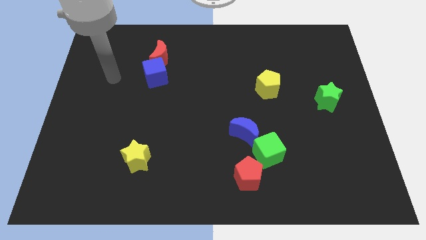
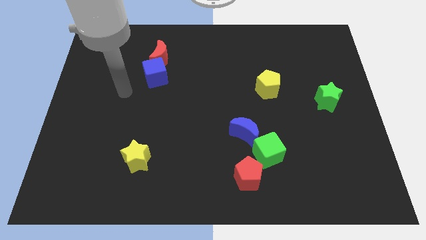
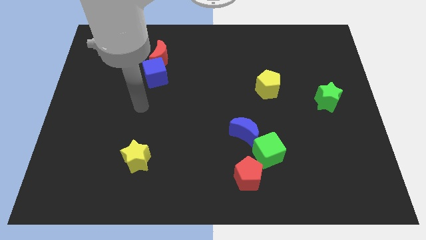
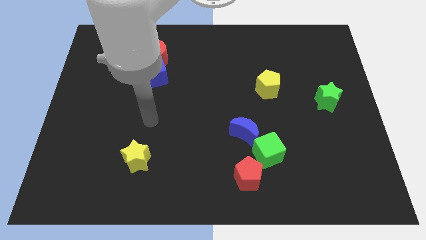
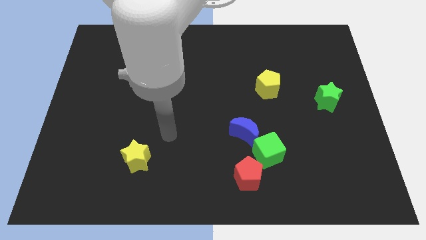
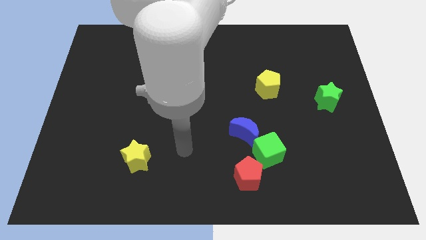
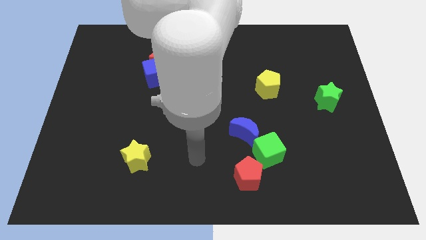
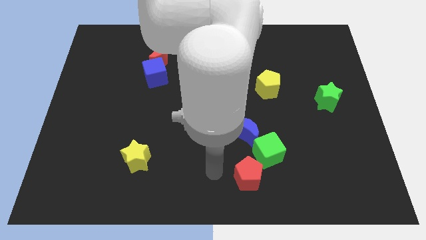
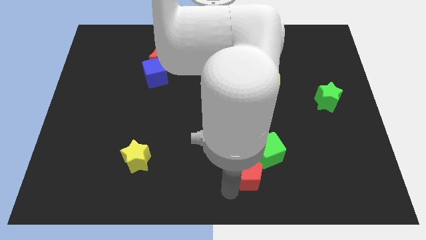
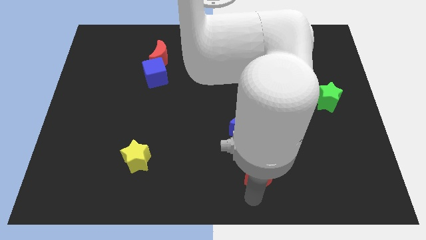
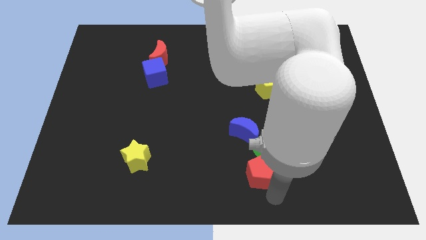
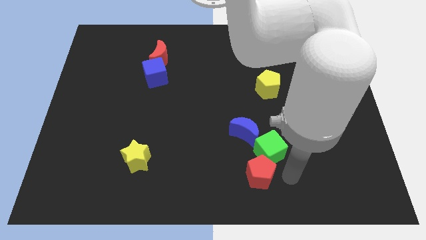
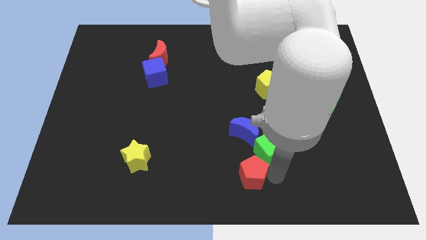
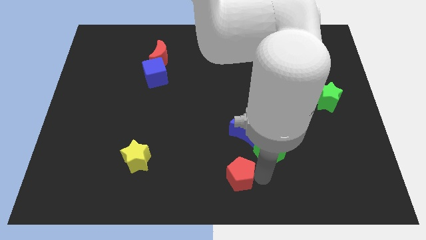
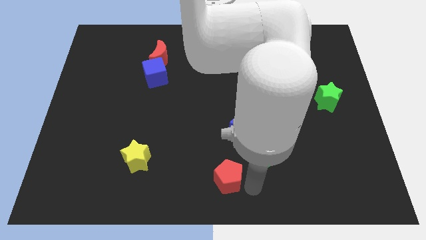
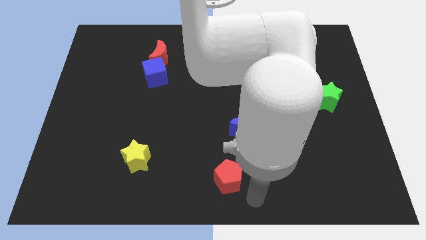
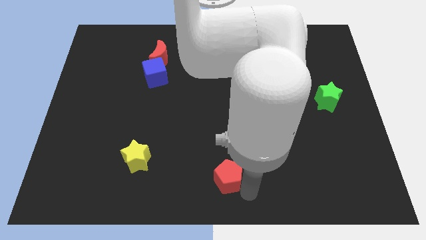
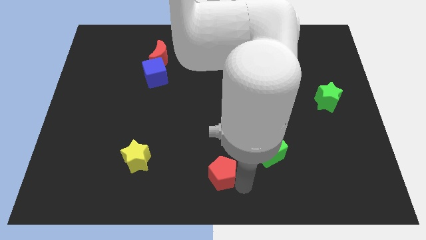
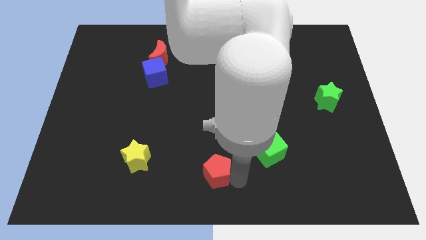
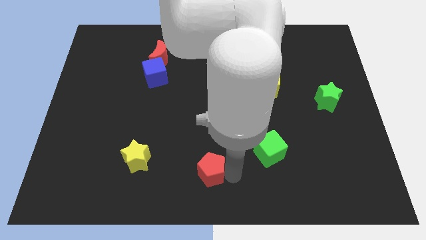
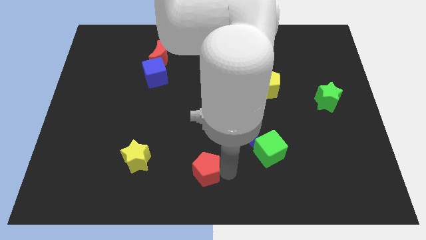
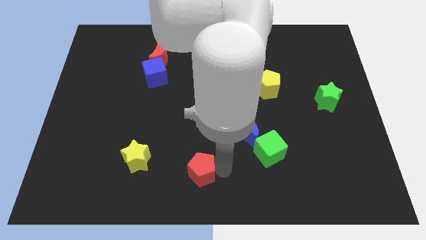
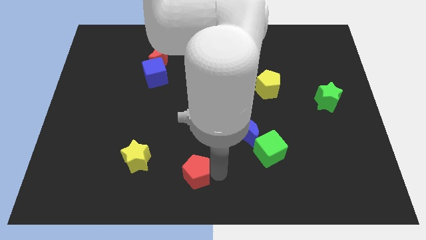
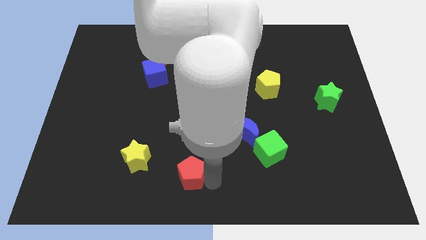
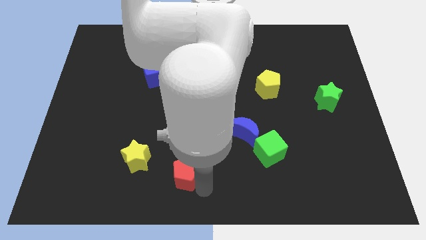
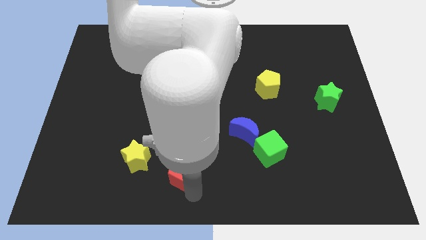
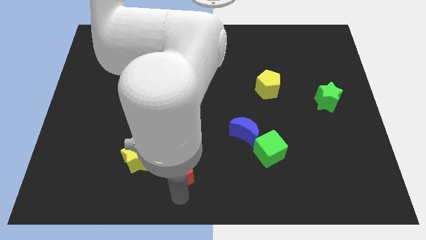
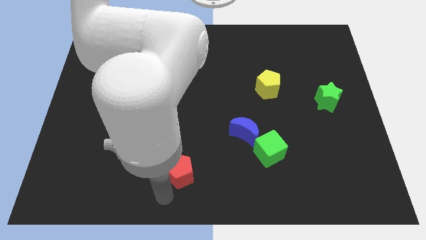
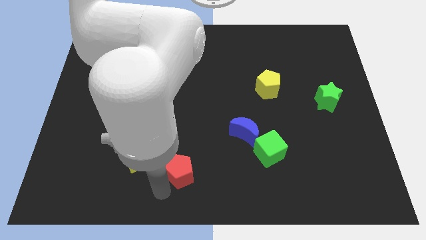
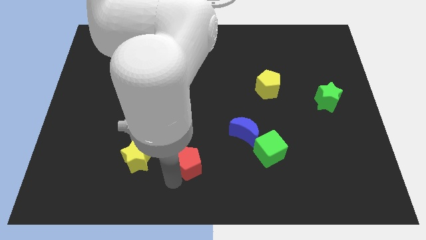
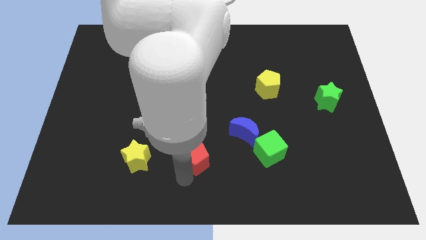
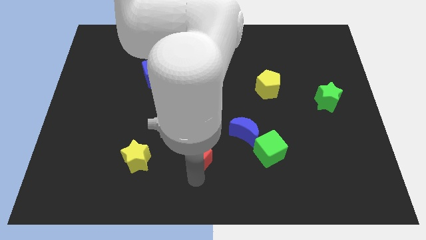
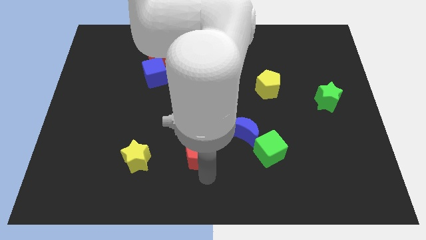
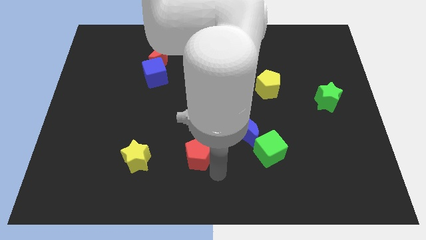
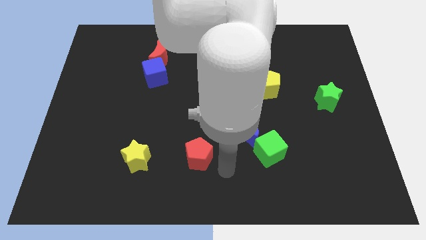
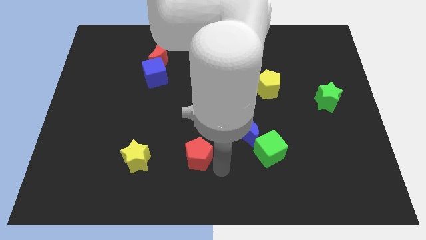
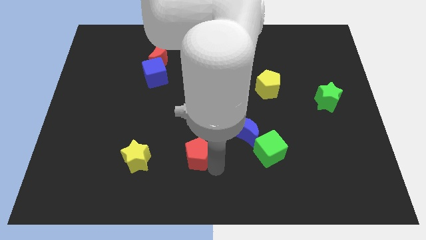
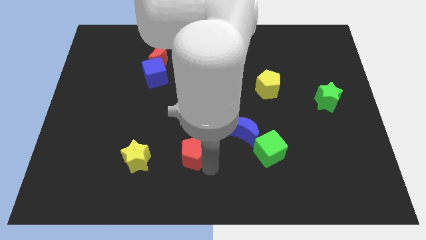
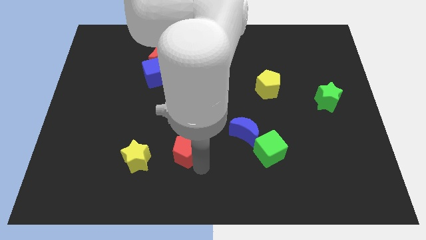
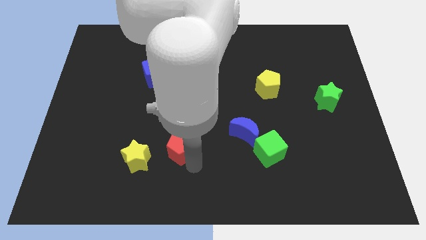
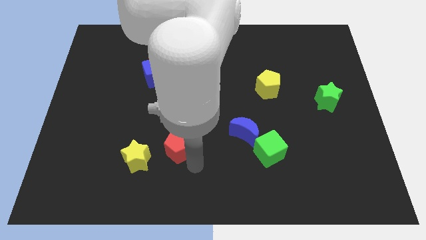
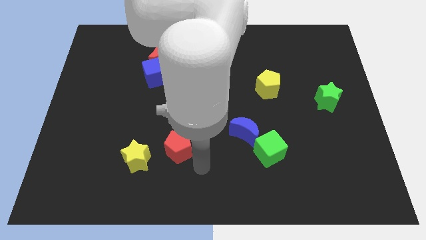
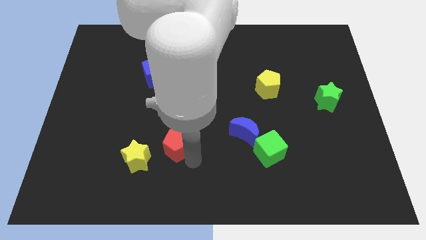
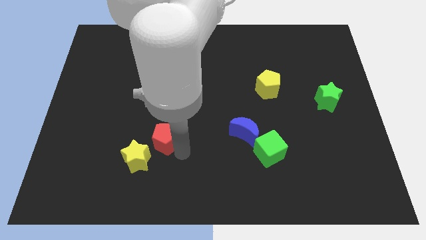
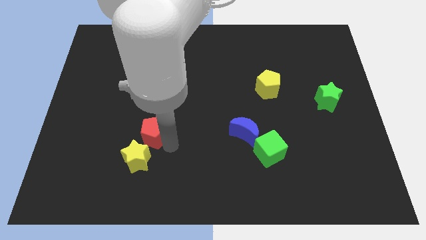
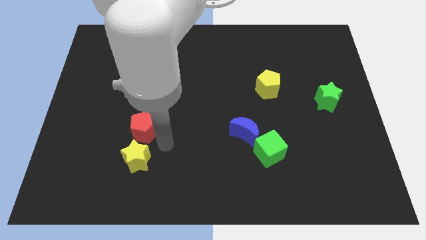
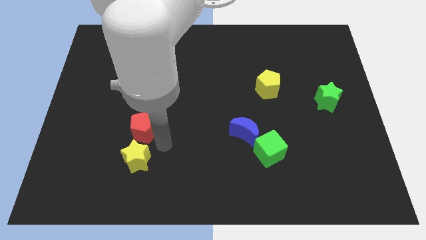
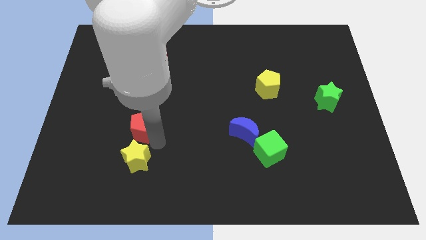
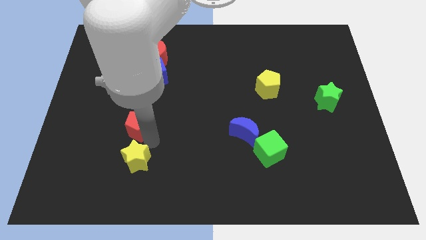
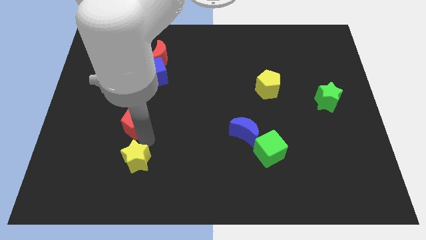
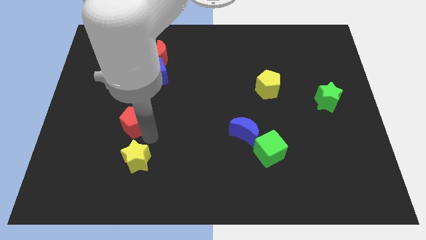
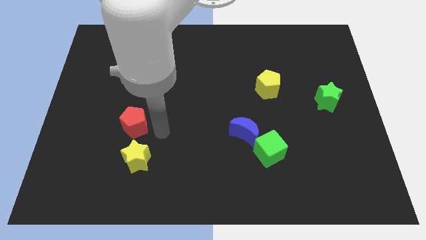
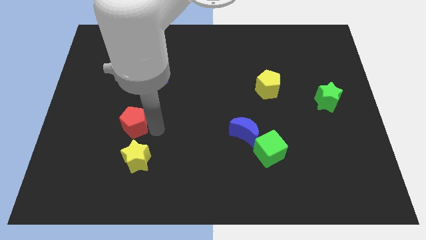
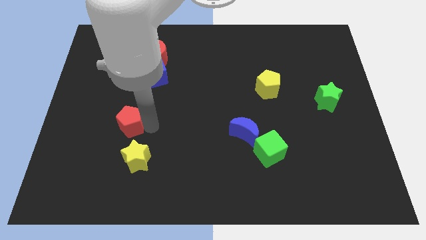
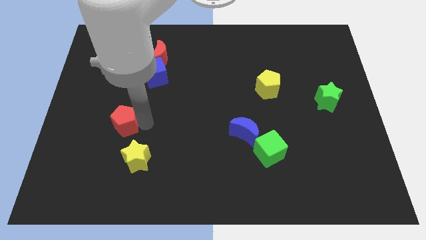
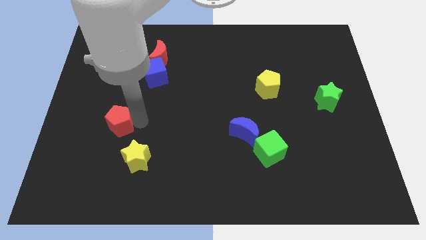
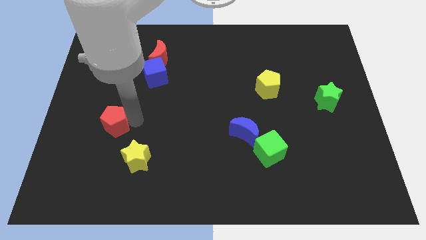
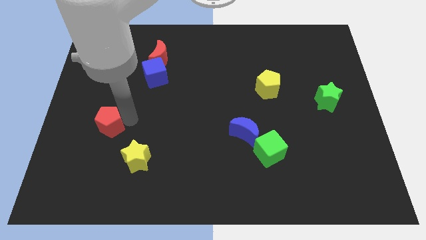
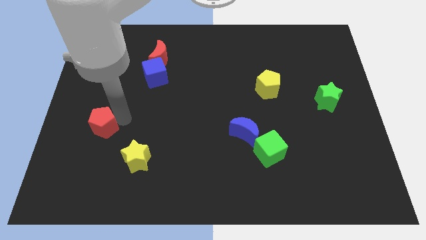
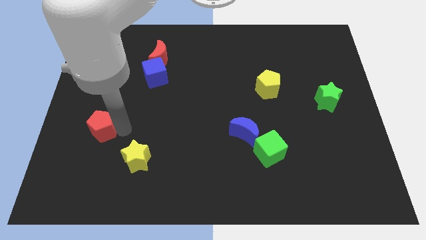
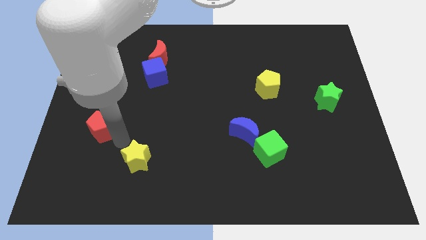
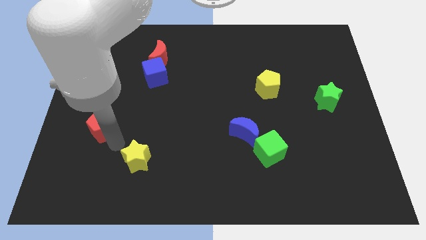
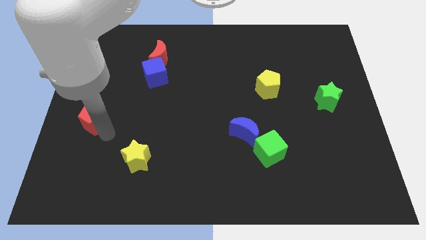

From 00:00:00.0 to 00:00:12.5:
slide the red pentagon to the left side of the board
